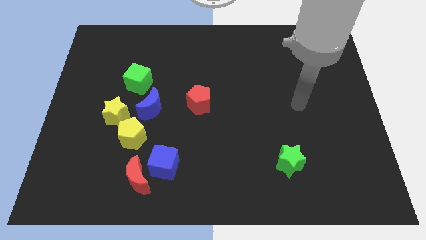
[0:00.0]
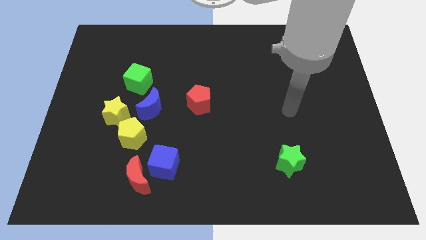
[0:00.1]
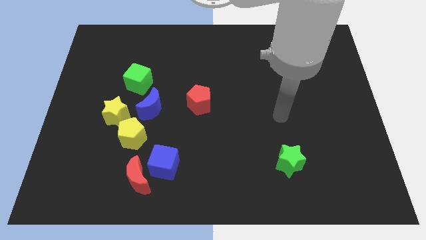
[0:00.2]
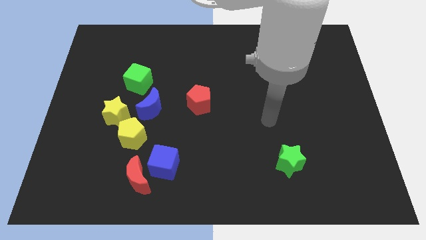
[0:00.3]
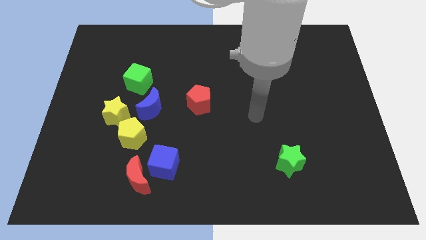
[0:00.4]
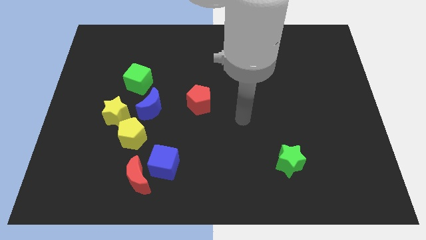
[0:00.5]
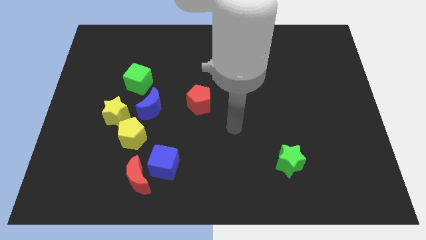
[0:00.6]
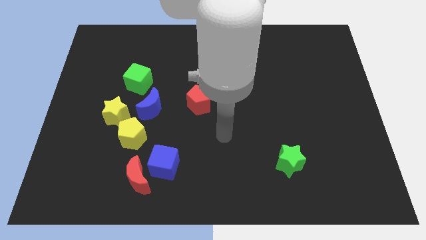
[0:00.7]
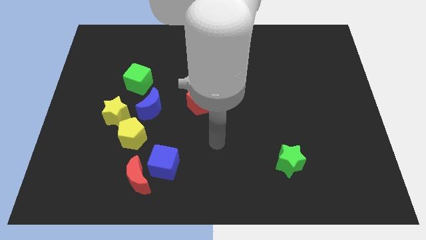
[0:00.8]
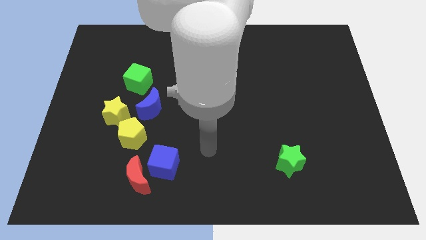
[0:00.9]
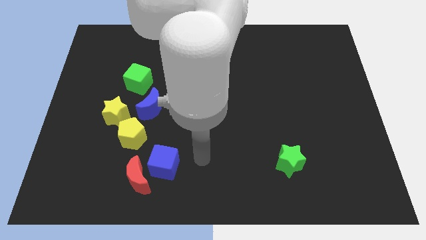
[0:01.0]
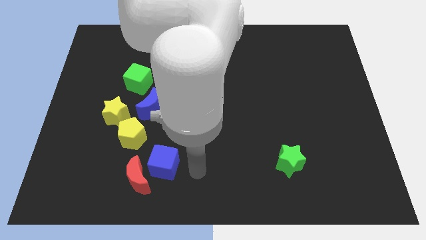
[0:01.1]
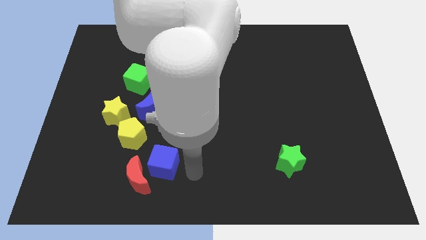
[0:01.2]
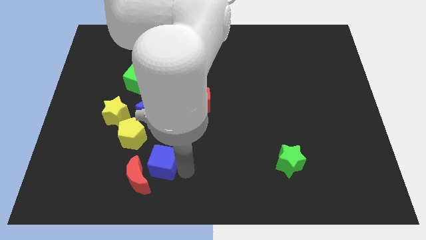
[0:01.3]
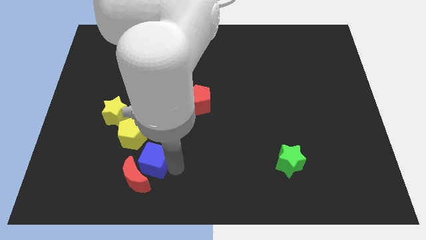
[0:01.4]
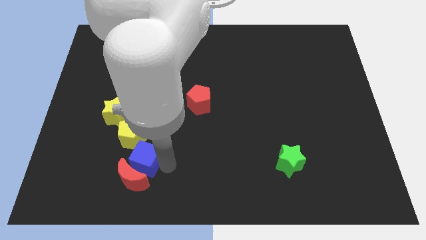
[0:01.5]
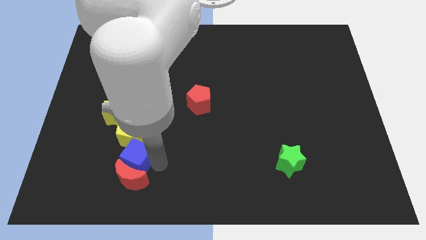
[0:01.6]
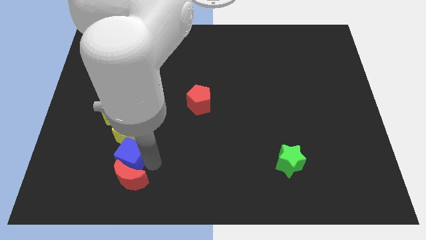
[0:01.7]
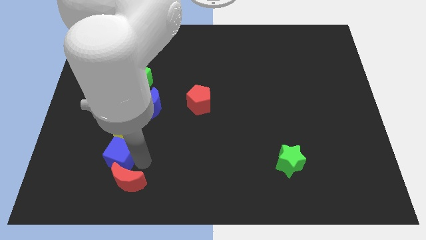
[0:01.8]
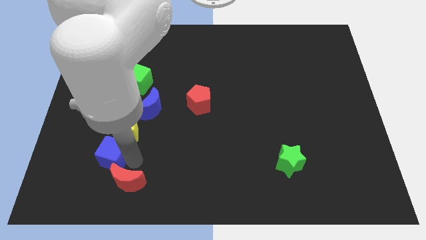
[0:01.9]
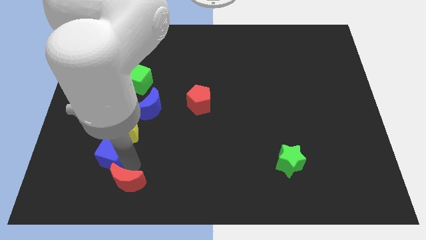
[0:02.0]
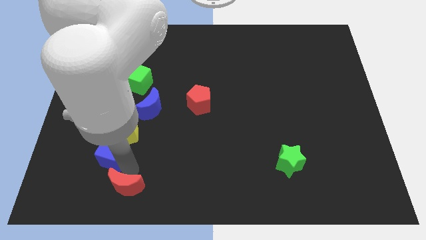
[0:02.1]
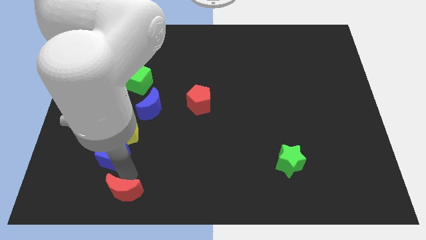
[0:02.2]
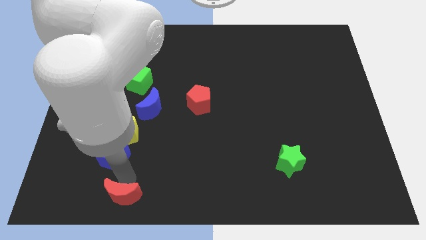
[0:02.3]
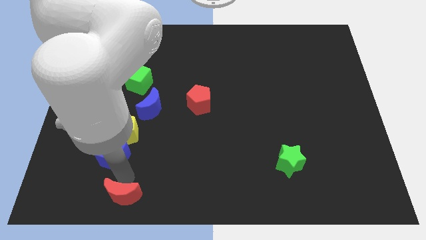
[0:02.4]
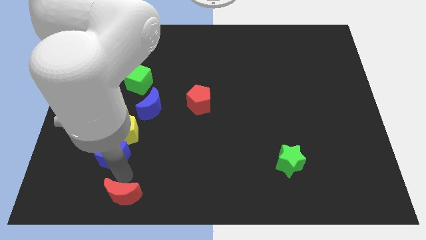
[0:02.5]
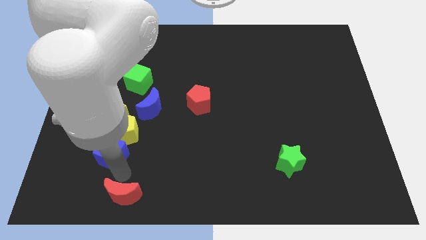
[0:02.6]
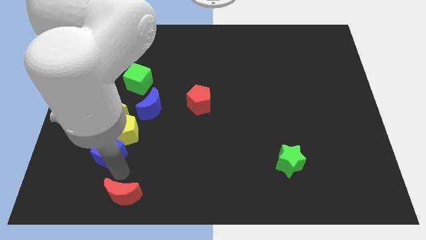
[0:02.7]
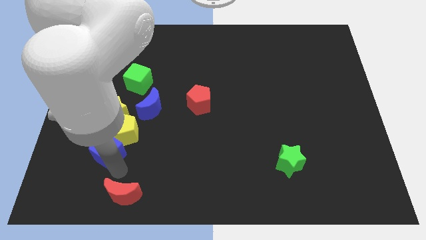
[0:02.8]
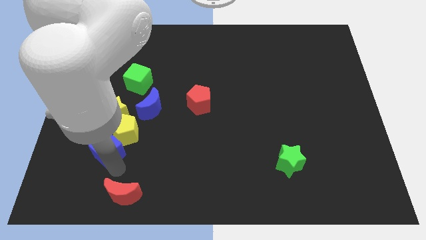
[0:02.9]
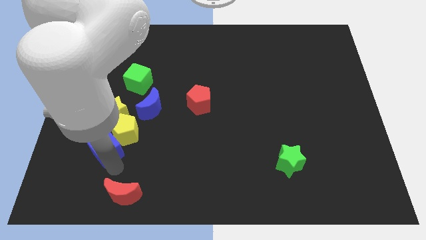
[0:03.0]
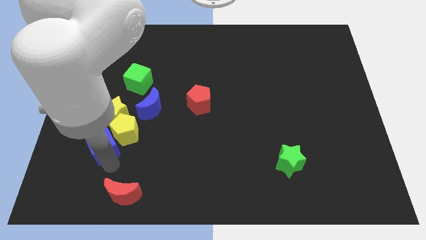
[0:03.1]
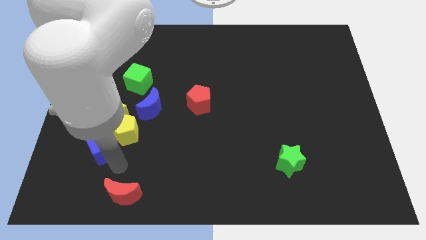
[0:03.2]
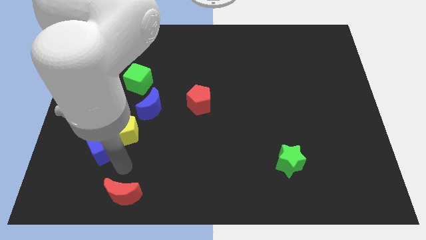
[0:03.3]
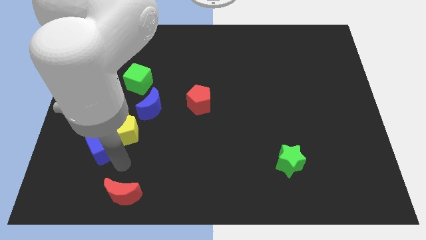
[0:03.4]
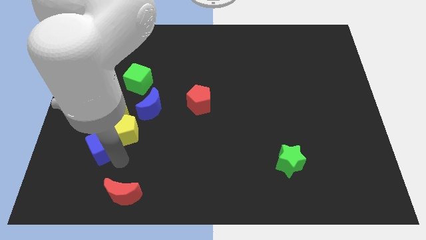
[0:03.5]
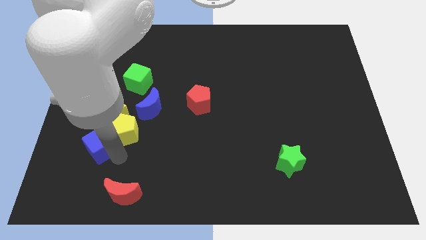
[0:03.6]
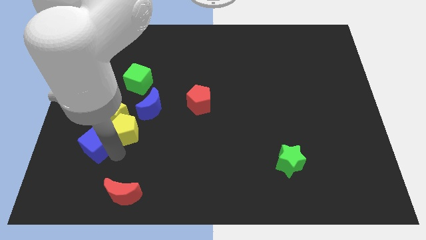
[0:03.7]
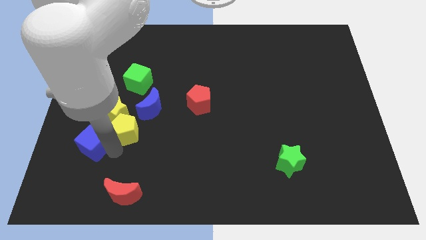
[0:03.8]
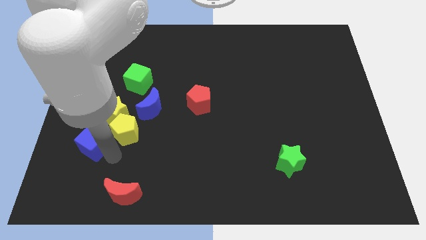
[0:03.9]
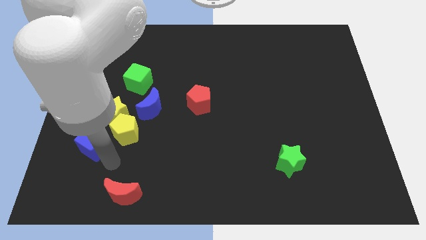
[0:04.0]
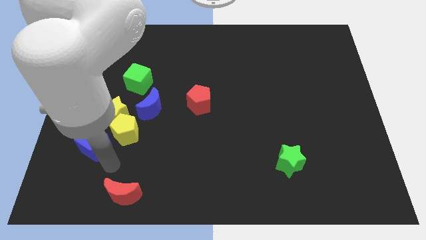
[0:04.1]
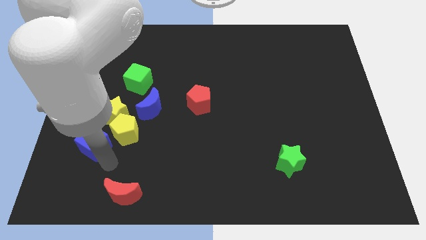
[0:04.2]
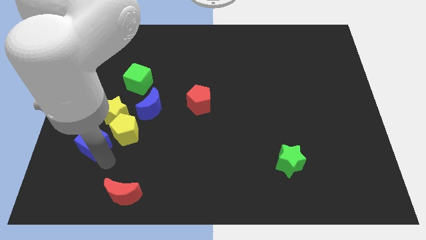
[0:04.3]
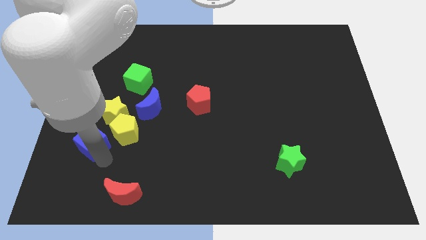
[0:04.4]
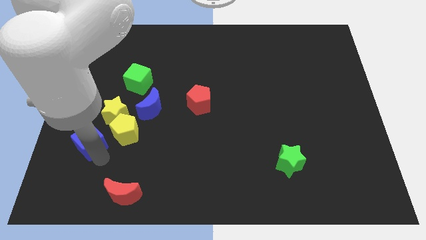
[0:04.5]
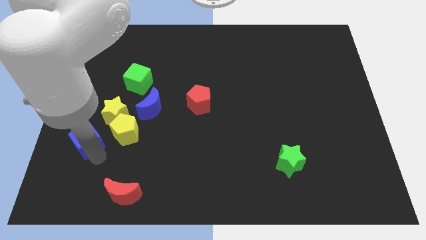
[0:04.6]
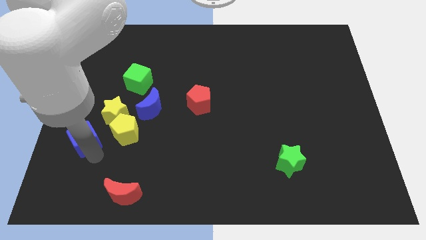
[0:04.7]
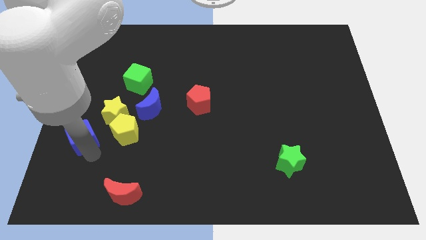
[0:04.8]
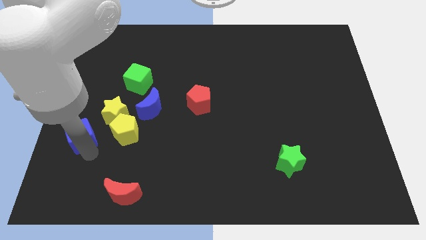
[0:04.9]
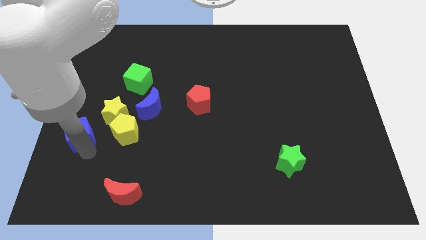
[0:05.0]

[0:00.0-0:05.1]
slide the blue cube to the left side

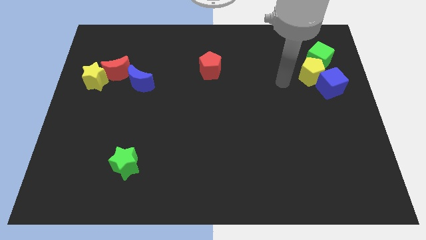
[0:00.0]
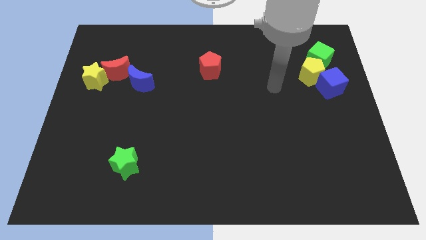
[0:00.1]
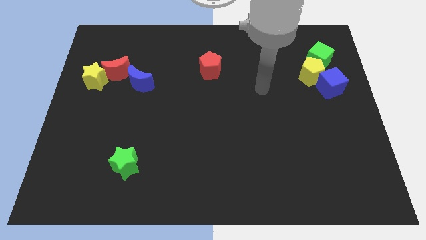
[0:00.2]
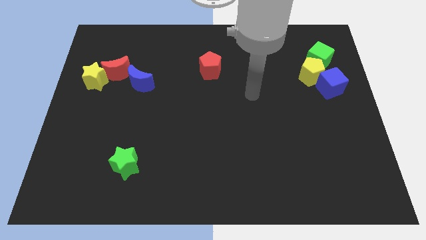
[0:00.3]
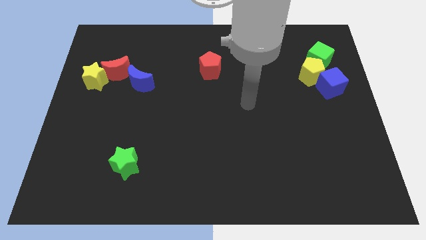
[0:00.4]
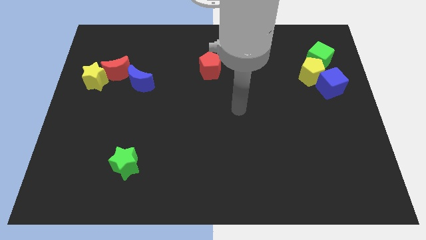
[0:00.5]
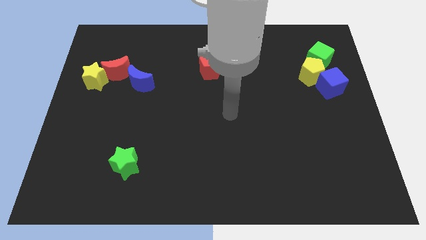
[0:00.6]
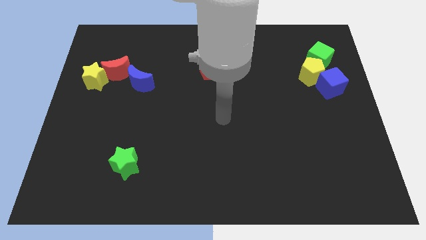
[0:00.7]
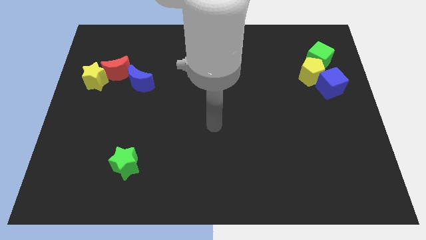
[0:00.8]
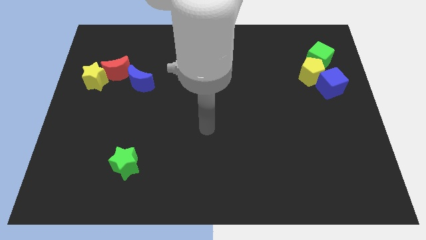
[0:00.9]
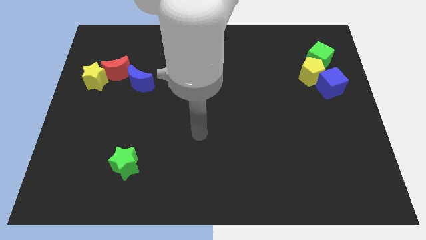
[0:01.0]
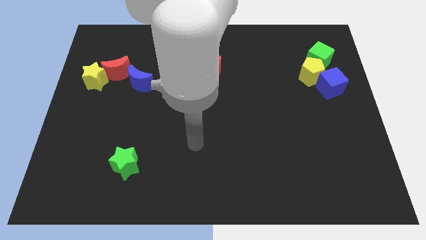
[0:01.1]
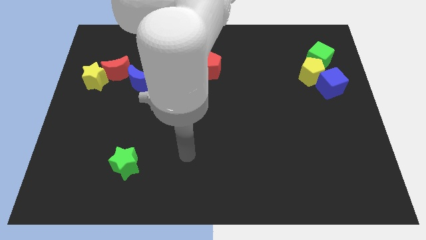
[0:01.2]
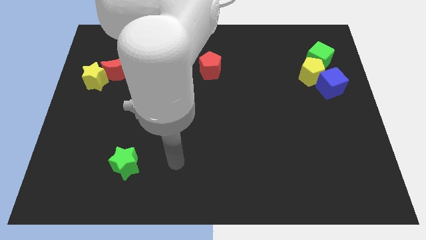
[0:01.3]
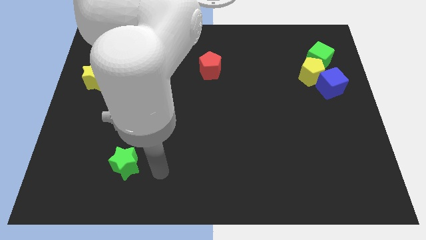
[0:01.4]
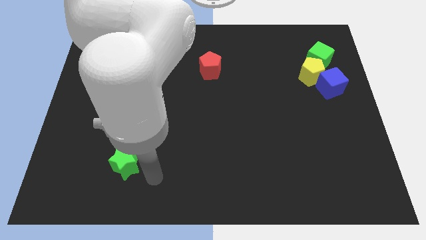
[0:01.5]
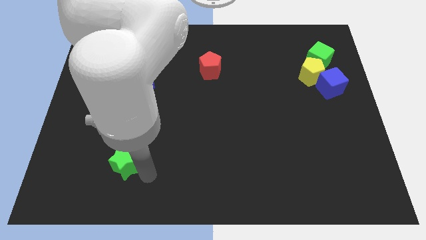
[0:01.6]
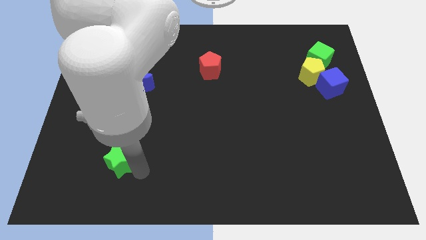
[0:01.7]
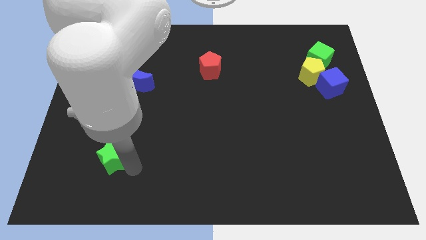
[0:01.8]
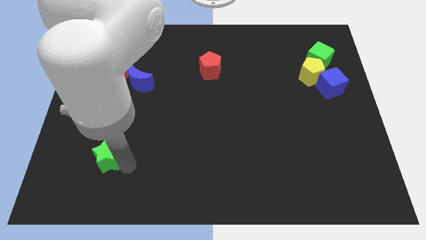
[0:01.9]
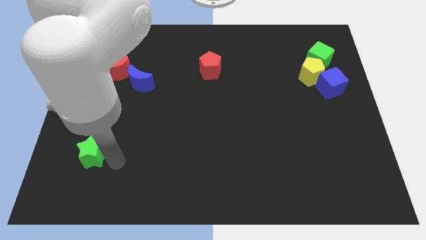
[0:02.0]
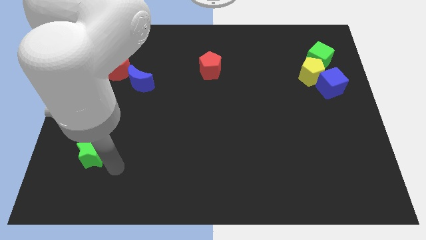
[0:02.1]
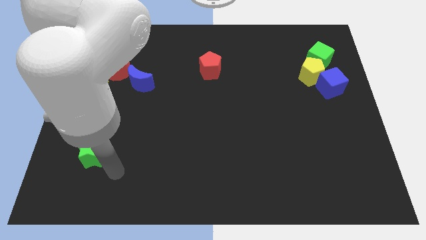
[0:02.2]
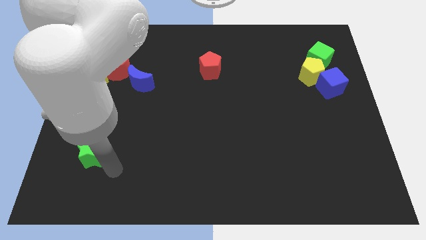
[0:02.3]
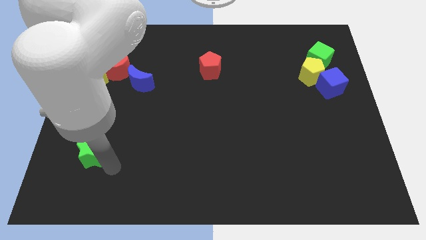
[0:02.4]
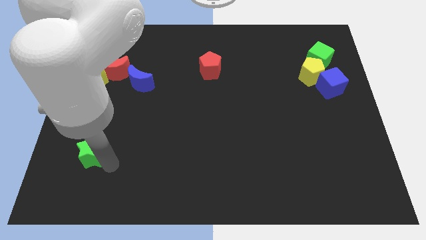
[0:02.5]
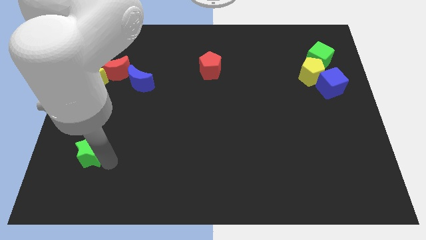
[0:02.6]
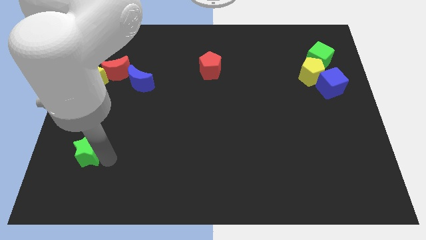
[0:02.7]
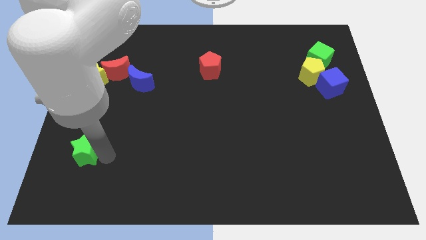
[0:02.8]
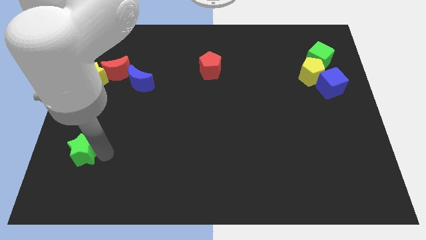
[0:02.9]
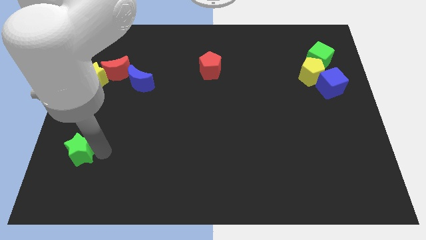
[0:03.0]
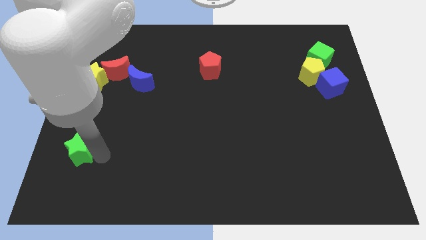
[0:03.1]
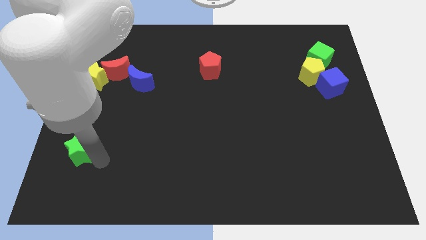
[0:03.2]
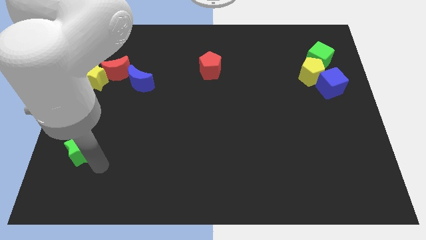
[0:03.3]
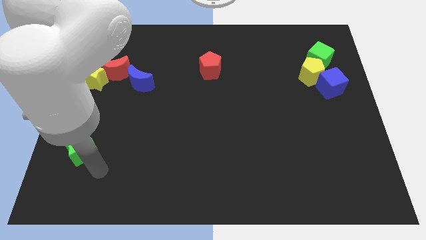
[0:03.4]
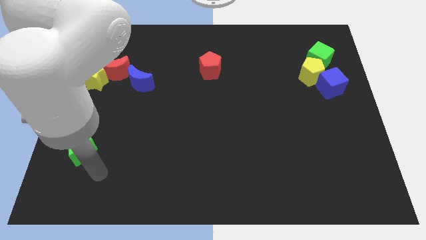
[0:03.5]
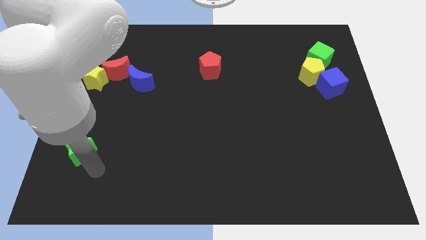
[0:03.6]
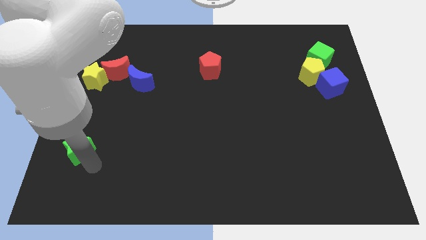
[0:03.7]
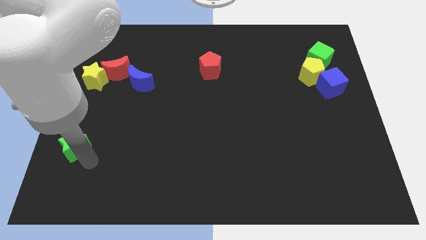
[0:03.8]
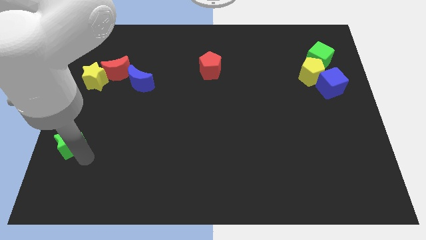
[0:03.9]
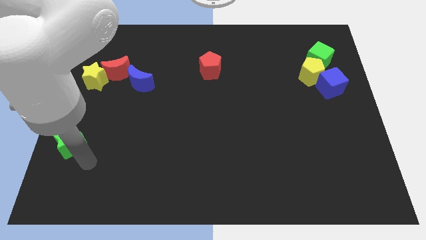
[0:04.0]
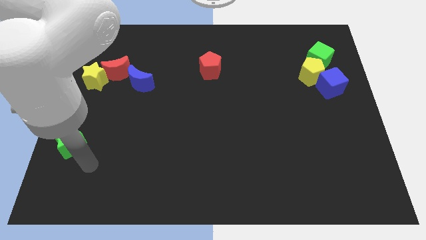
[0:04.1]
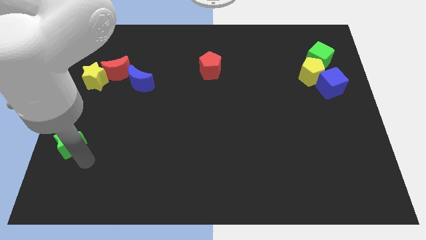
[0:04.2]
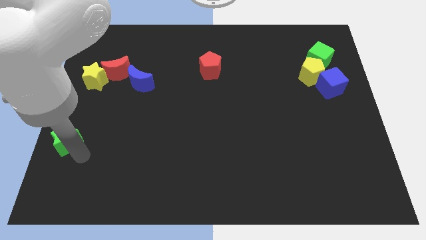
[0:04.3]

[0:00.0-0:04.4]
slide the green star to the left side
